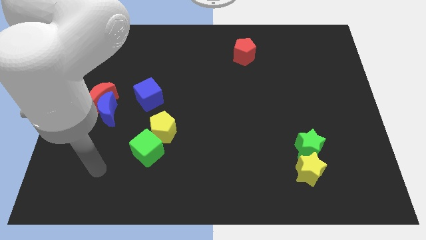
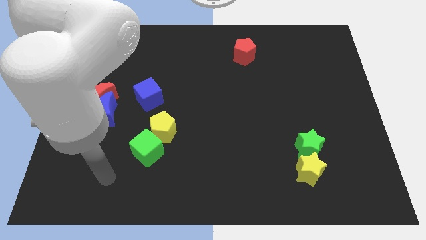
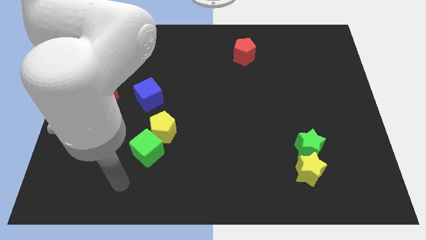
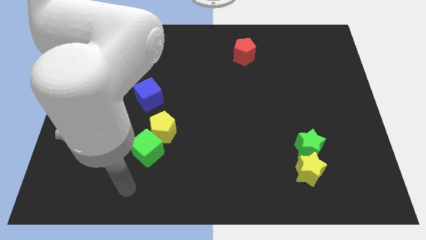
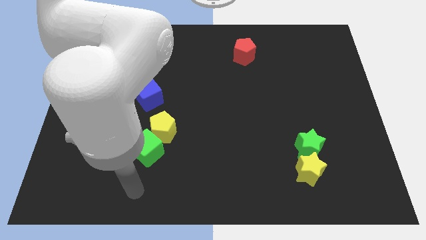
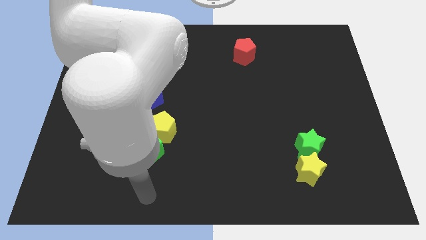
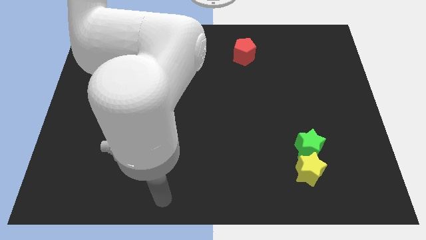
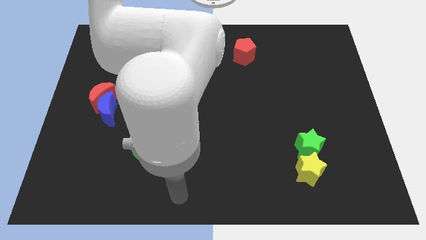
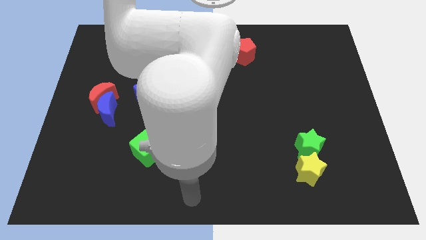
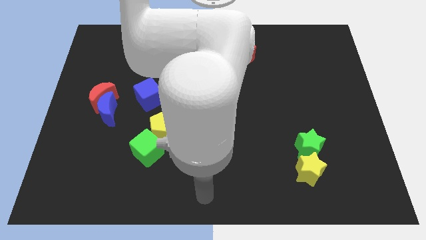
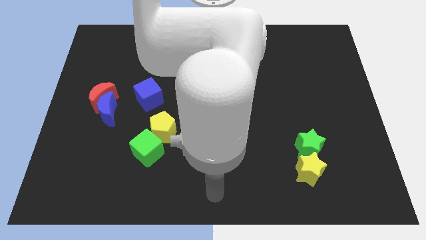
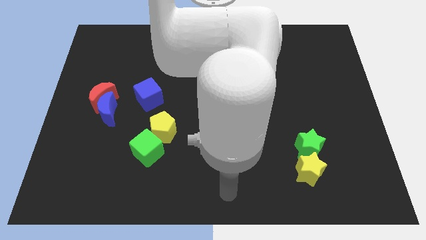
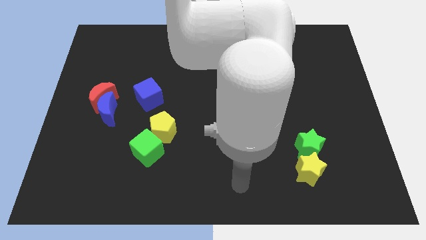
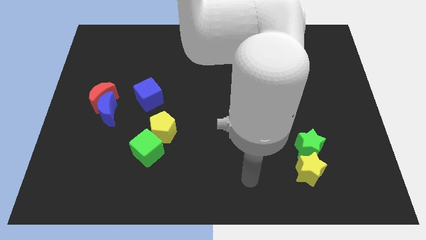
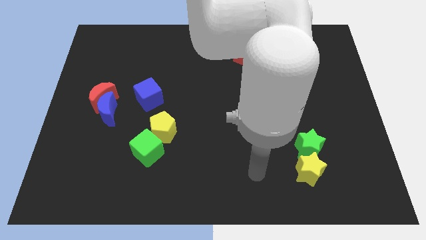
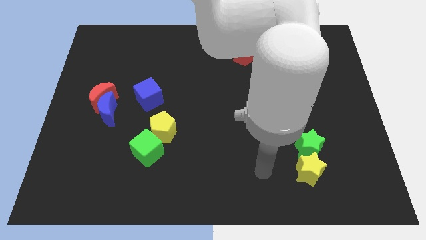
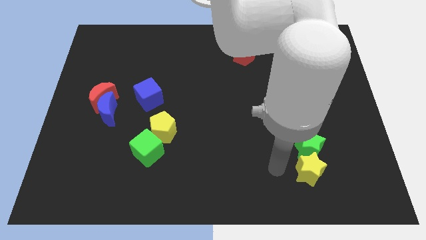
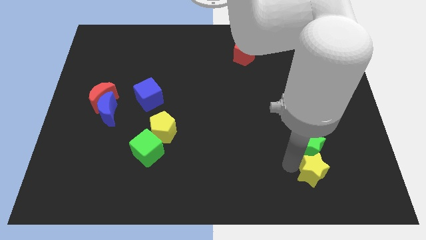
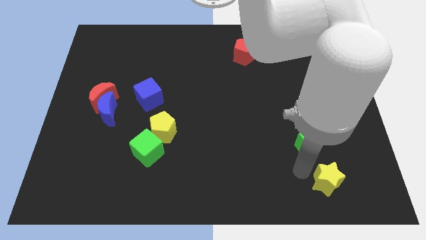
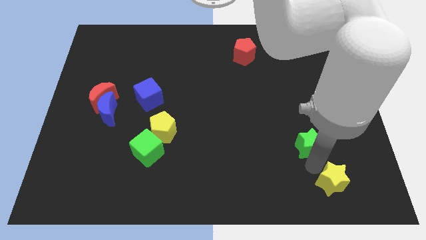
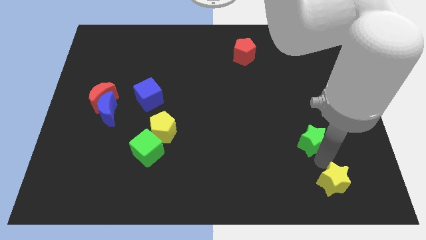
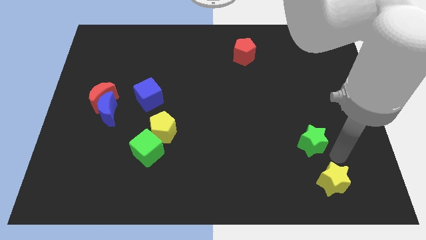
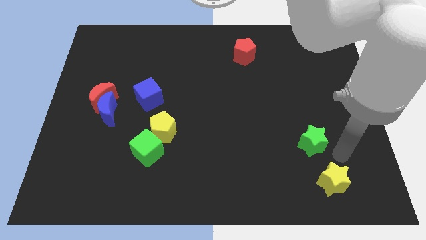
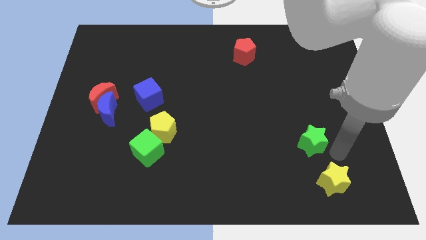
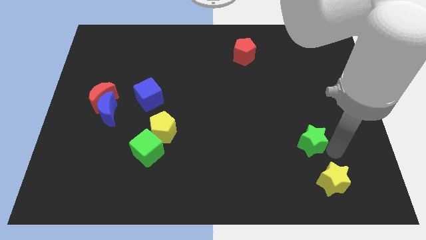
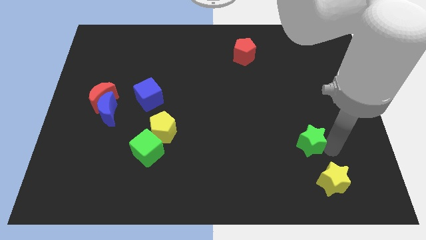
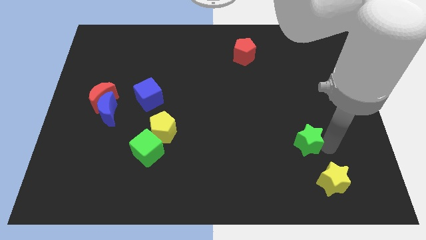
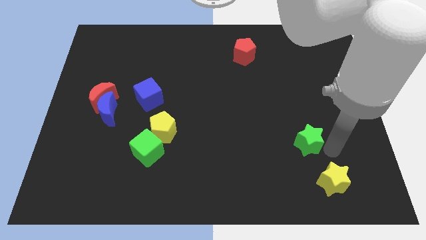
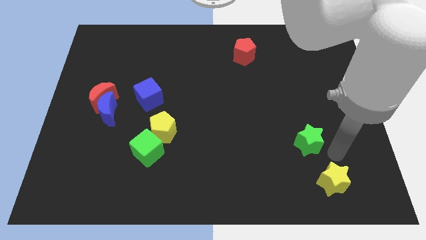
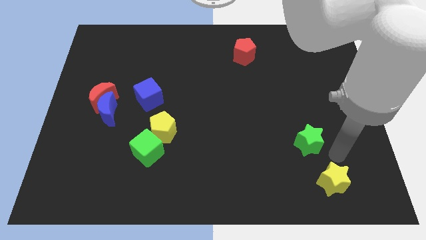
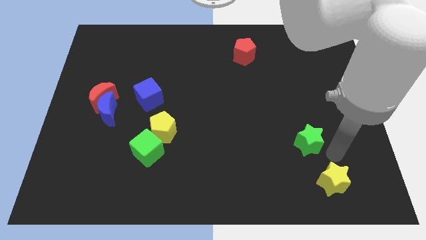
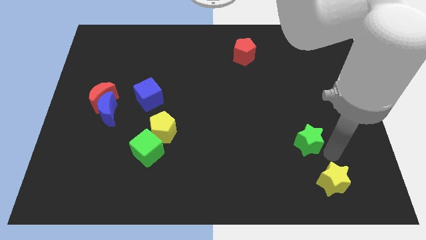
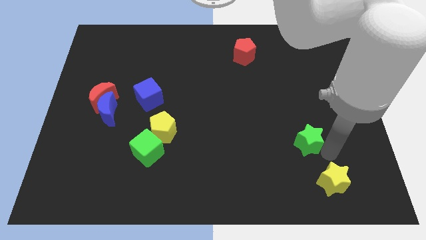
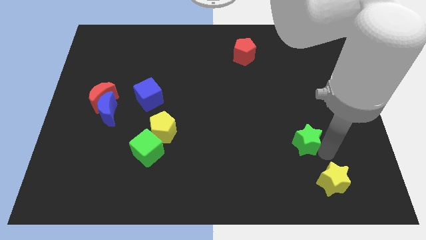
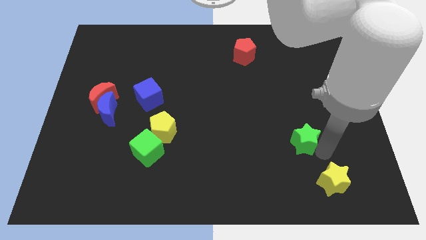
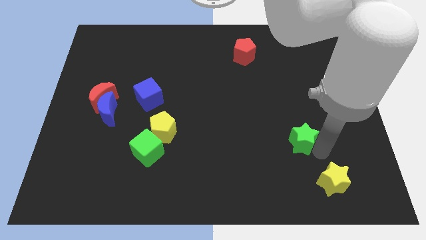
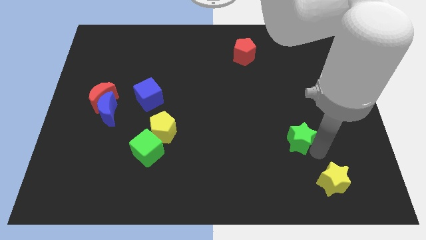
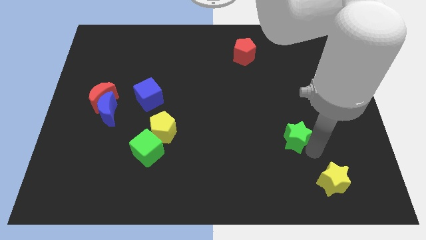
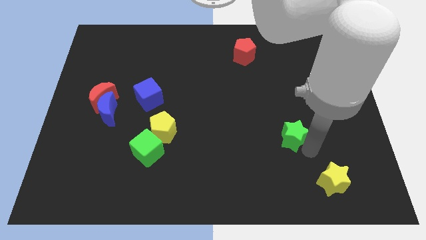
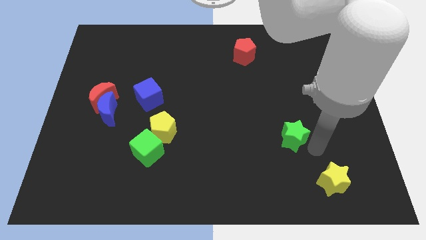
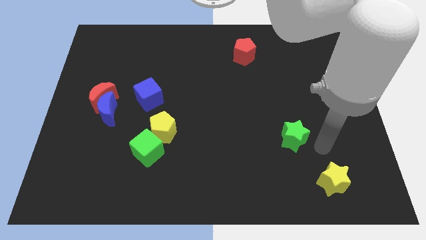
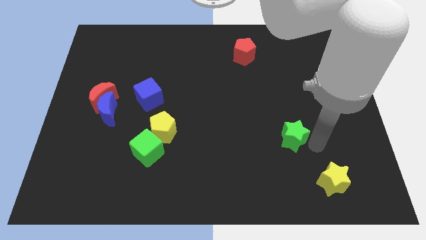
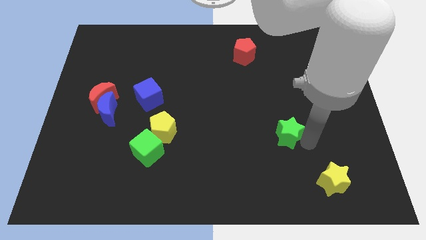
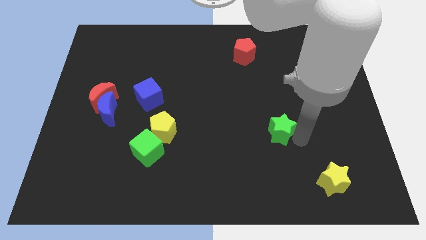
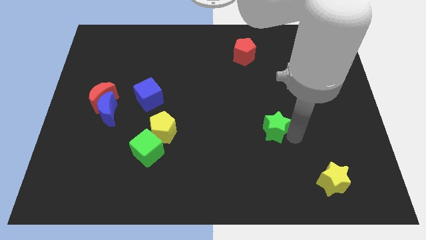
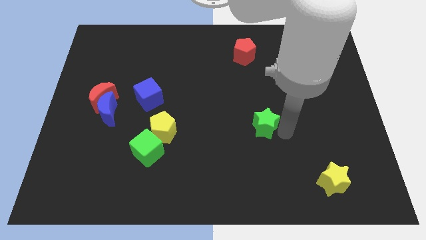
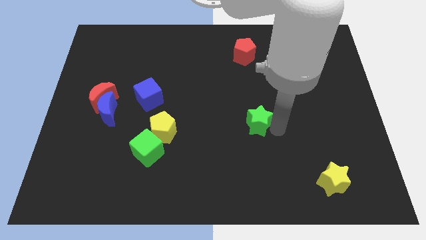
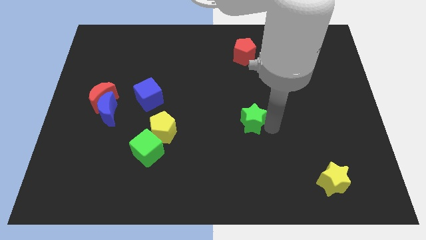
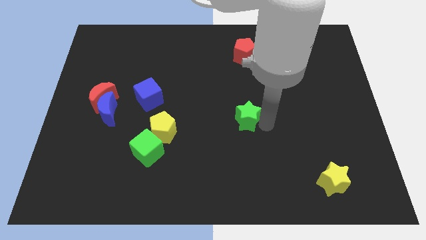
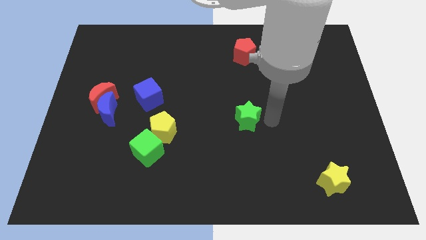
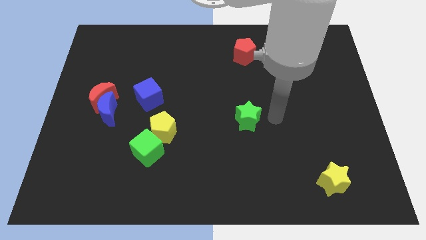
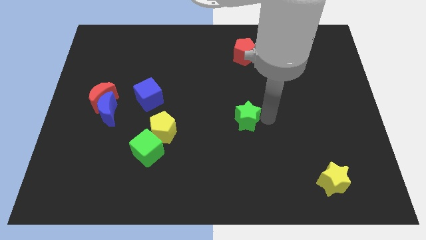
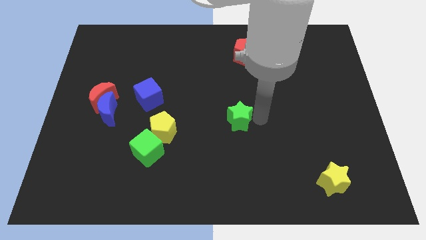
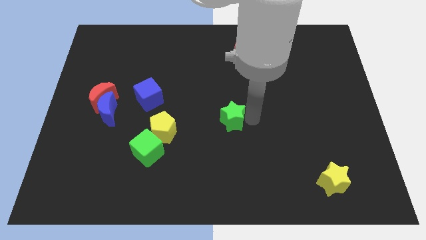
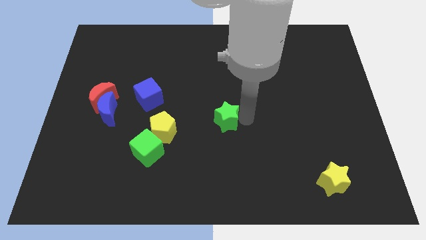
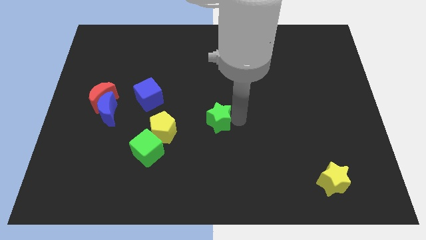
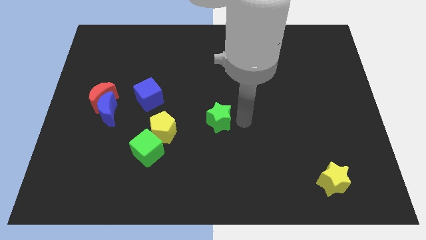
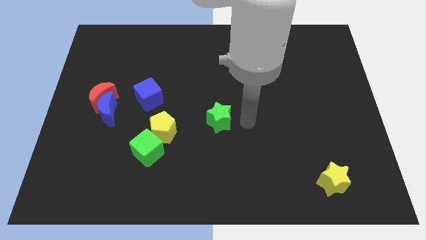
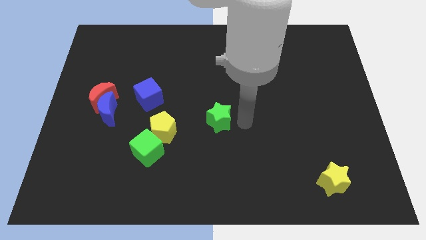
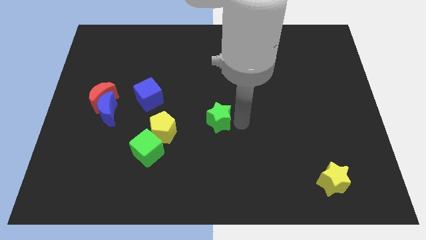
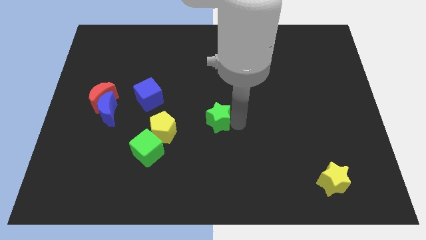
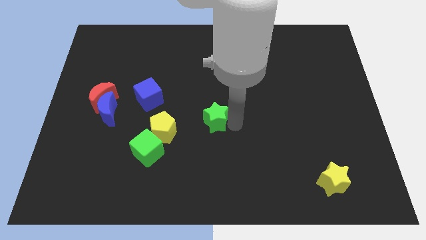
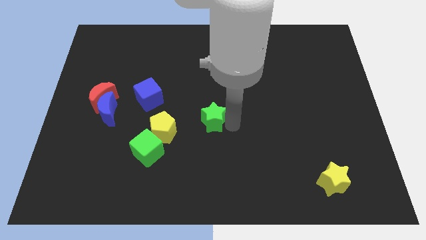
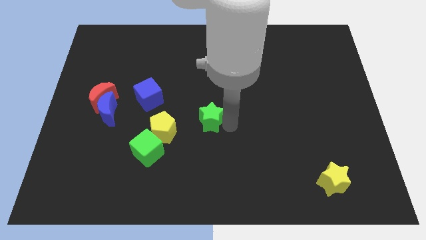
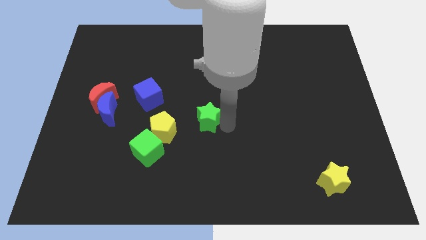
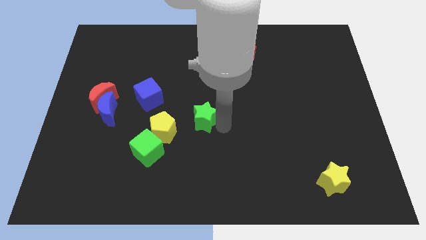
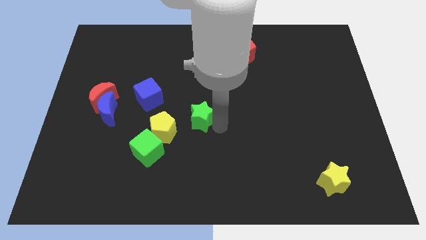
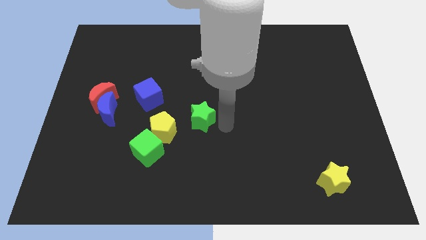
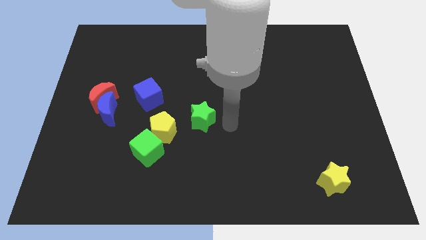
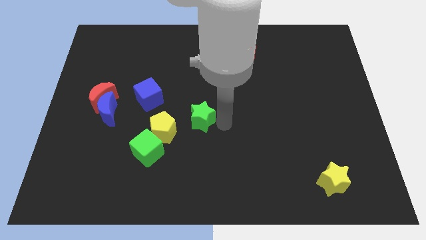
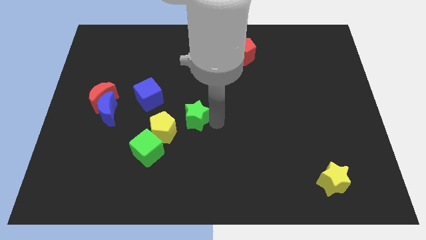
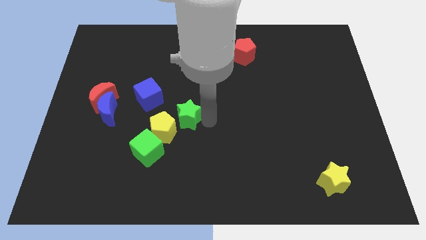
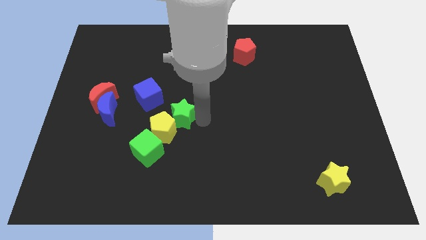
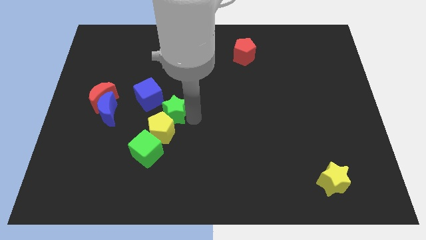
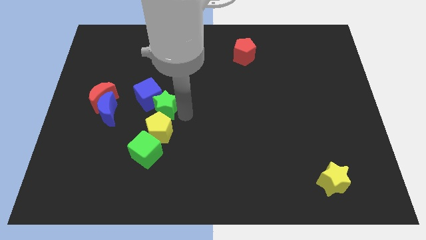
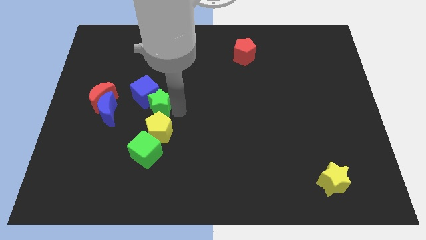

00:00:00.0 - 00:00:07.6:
put the green star to the top left of the yellow pentagon
